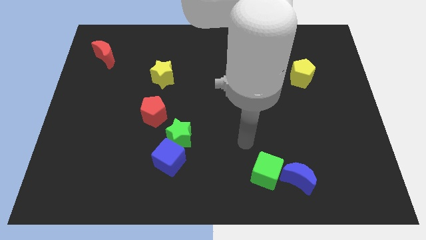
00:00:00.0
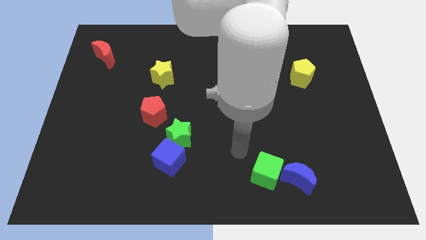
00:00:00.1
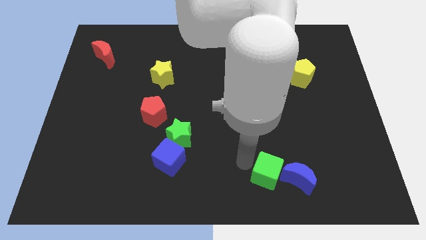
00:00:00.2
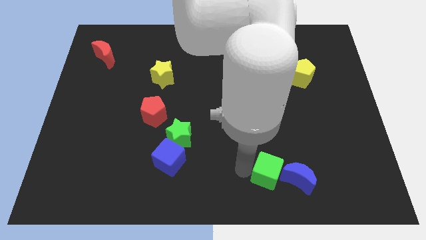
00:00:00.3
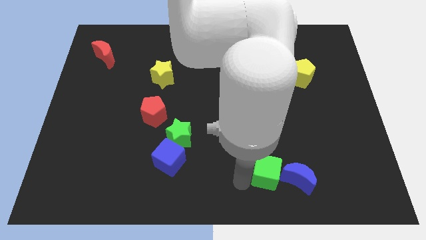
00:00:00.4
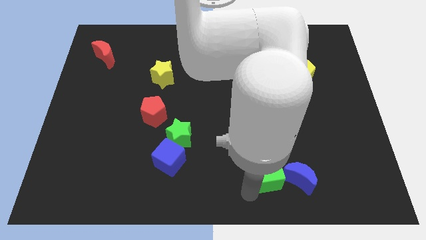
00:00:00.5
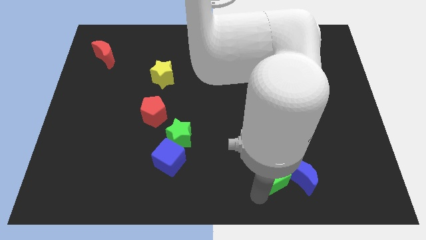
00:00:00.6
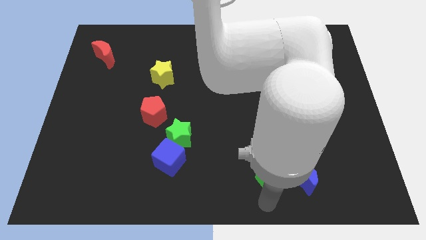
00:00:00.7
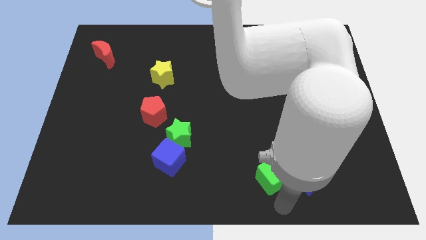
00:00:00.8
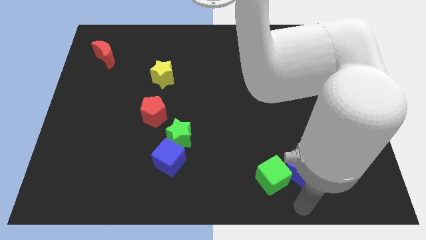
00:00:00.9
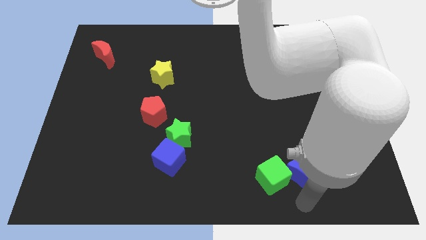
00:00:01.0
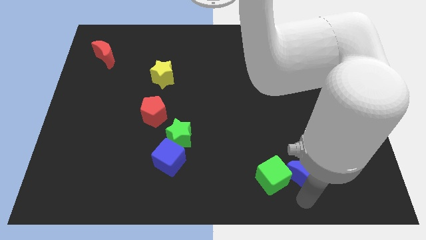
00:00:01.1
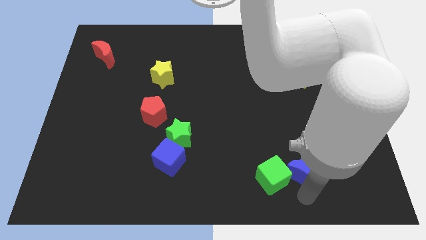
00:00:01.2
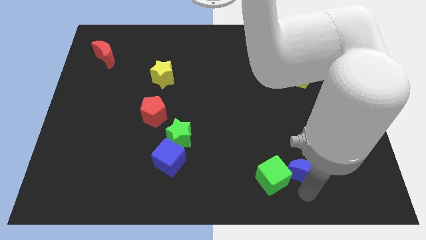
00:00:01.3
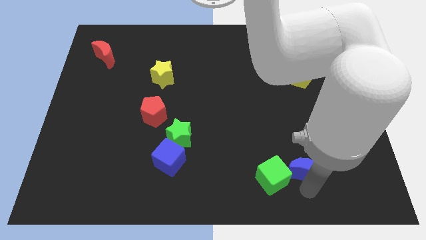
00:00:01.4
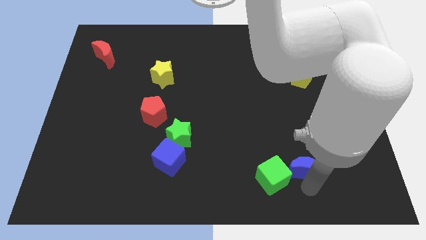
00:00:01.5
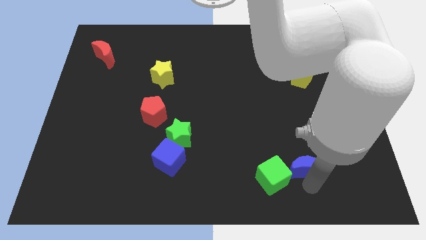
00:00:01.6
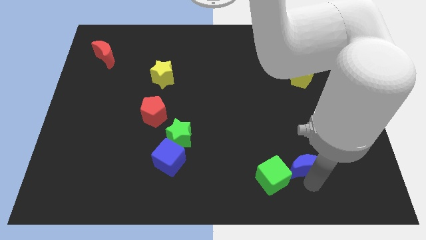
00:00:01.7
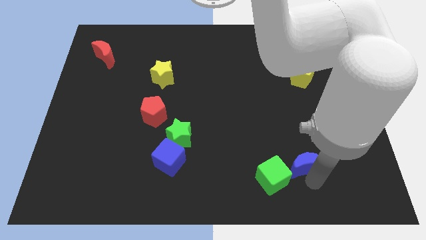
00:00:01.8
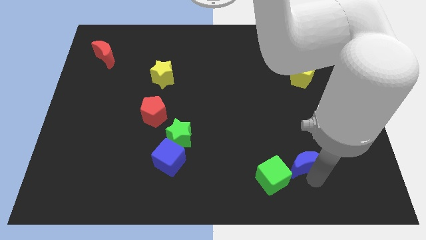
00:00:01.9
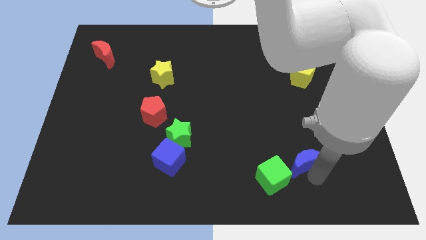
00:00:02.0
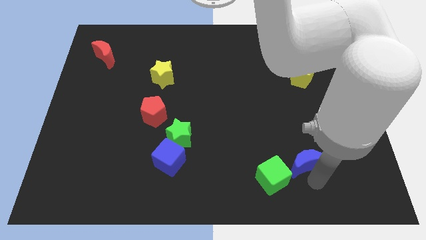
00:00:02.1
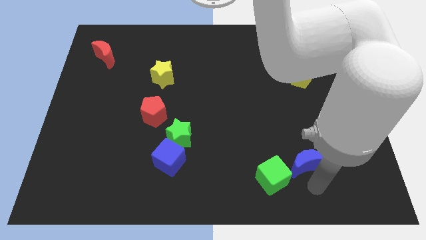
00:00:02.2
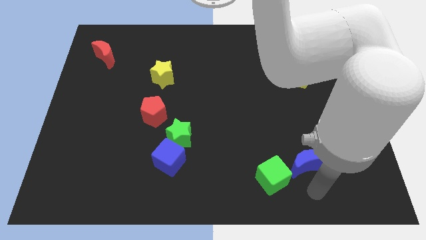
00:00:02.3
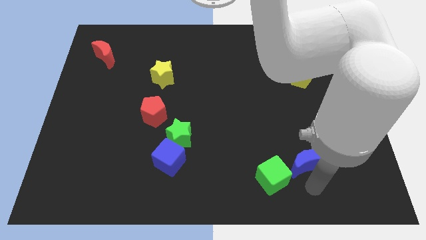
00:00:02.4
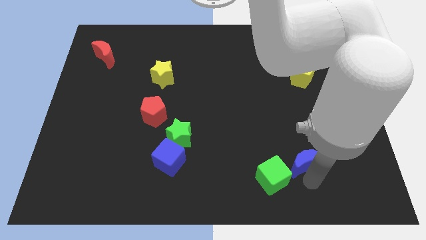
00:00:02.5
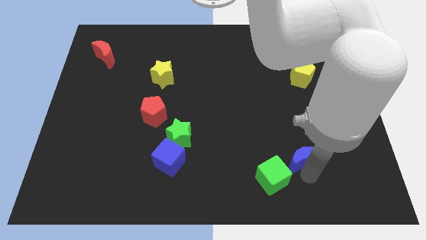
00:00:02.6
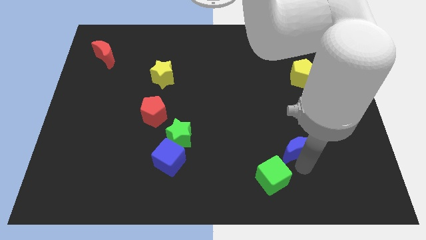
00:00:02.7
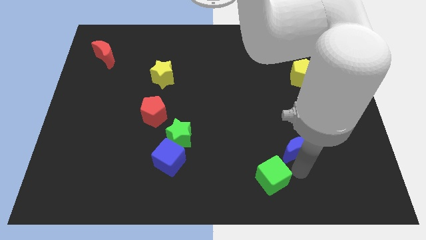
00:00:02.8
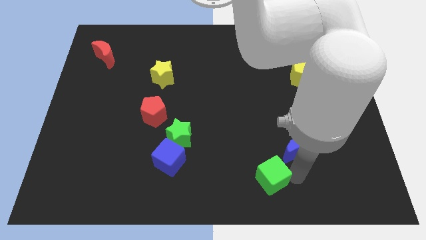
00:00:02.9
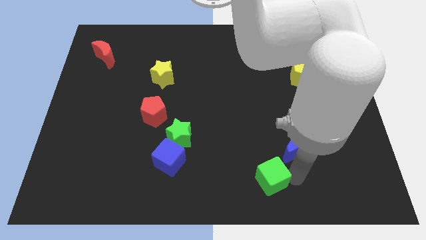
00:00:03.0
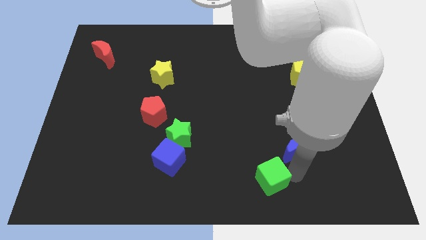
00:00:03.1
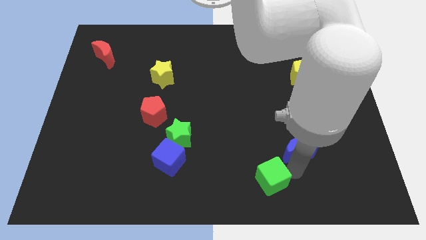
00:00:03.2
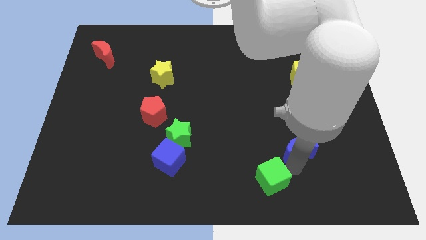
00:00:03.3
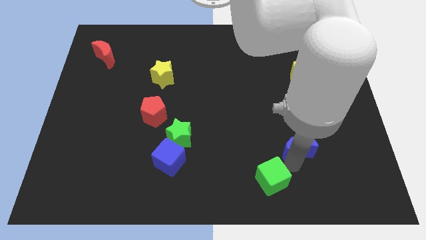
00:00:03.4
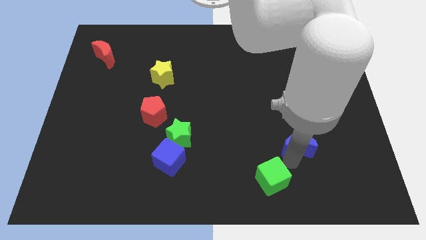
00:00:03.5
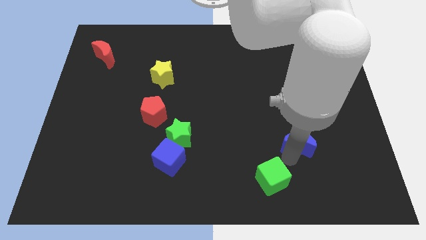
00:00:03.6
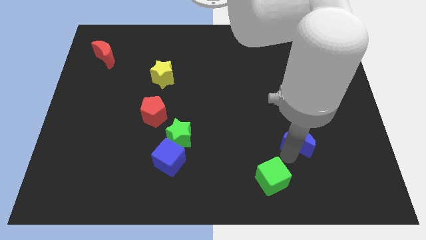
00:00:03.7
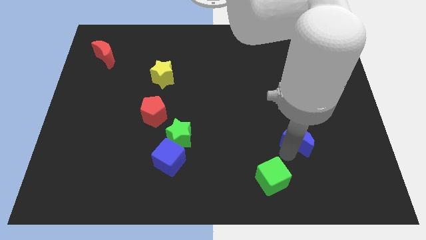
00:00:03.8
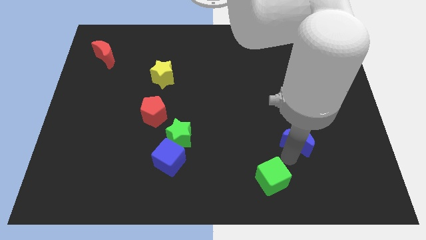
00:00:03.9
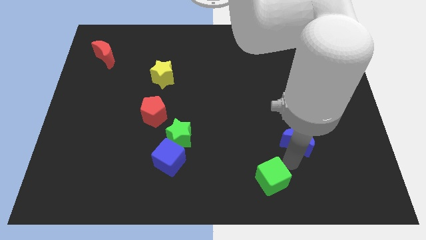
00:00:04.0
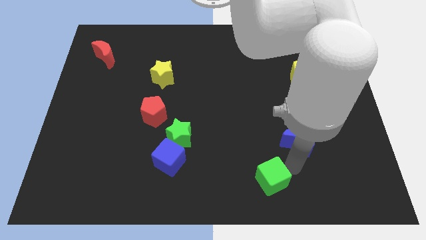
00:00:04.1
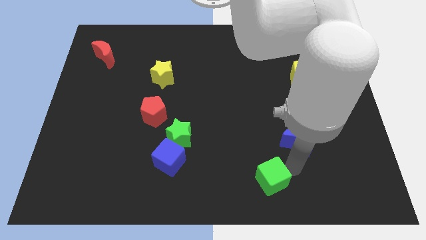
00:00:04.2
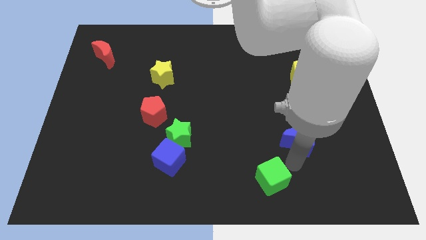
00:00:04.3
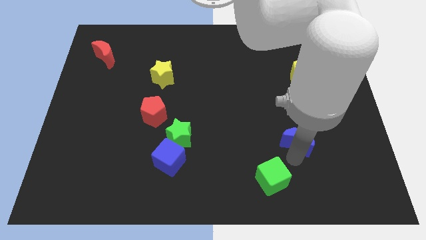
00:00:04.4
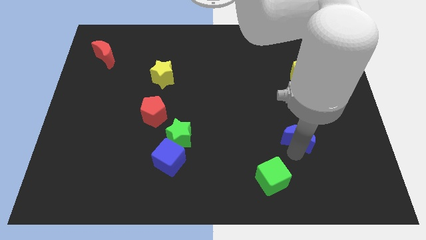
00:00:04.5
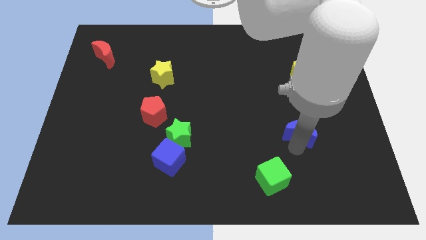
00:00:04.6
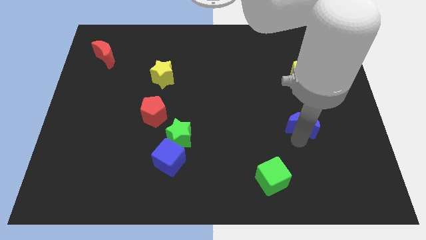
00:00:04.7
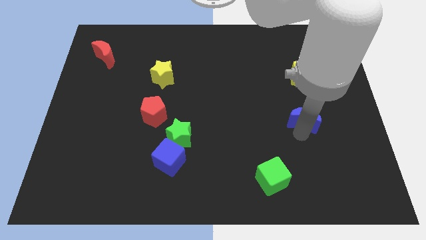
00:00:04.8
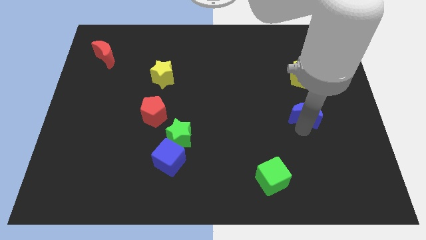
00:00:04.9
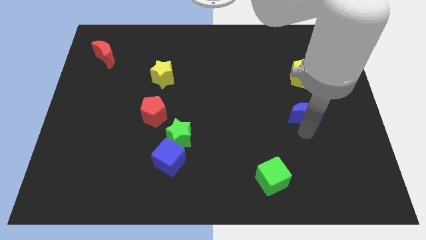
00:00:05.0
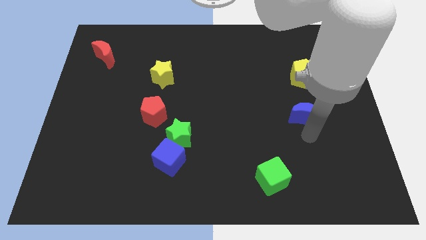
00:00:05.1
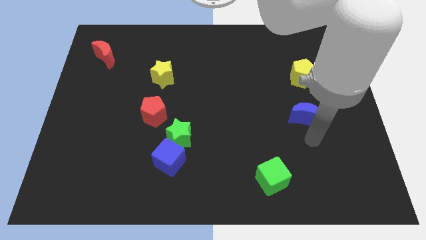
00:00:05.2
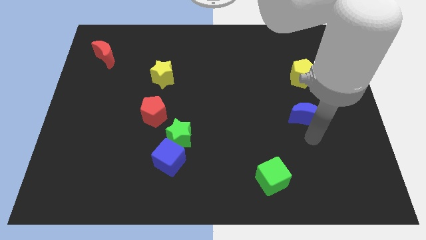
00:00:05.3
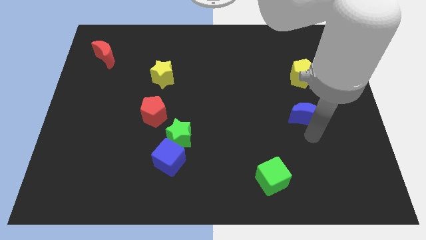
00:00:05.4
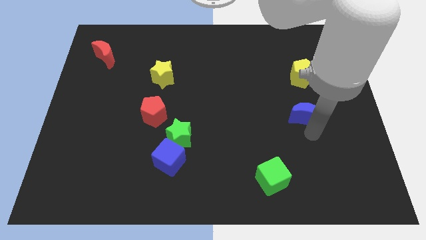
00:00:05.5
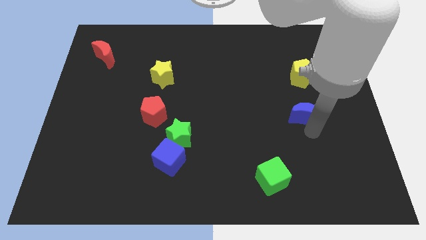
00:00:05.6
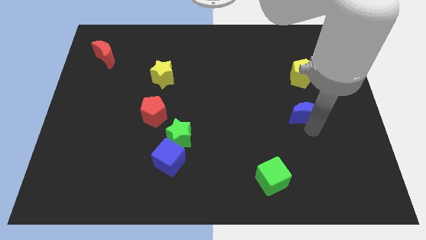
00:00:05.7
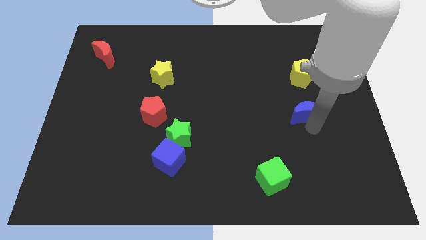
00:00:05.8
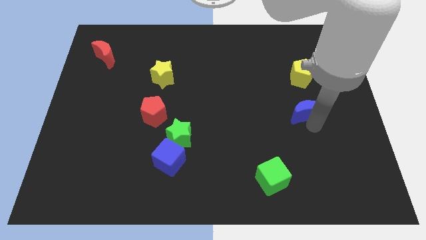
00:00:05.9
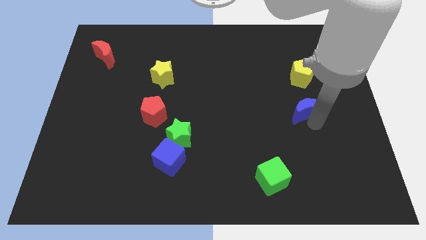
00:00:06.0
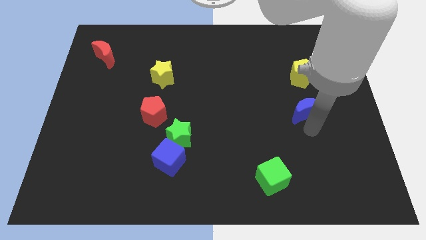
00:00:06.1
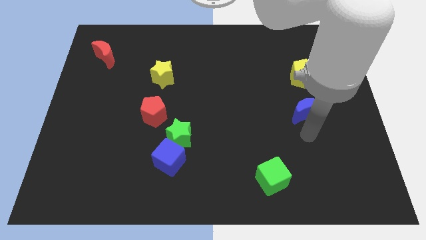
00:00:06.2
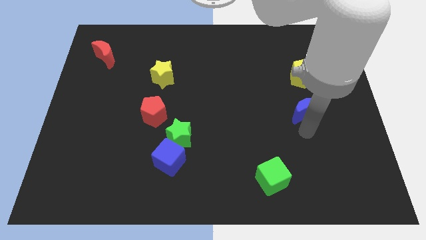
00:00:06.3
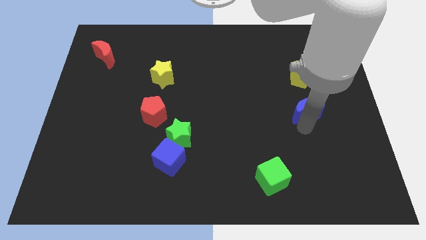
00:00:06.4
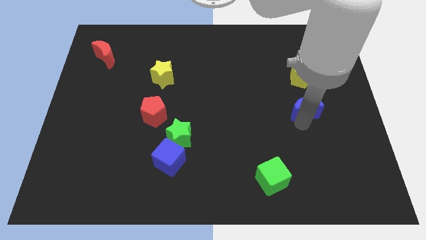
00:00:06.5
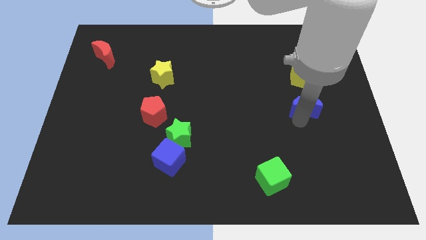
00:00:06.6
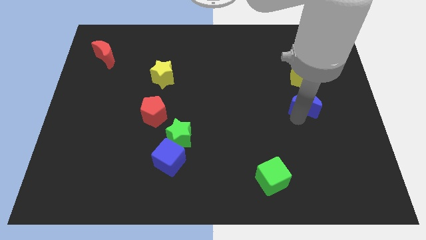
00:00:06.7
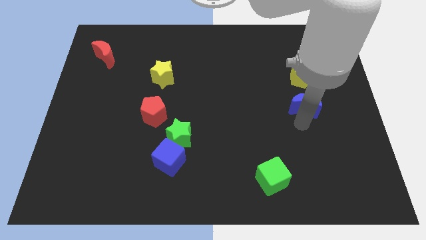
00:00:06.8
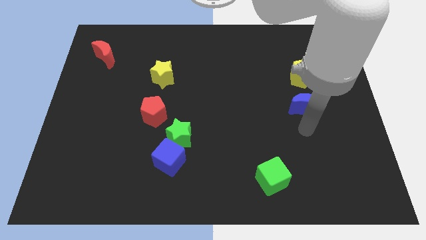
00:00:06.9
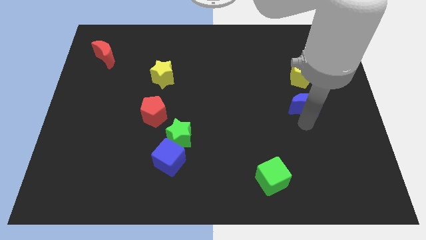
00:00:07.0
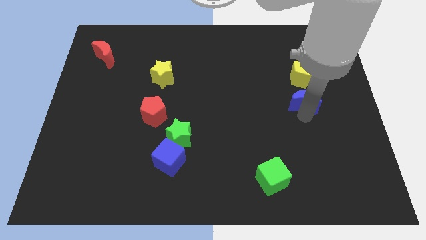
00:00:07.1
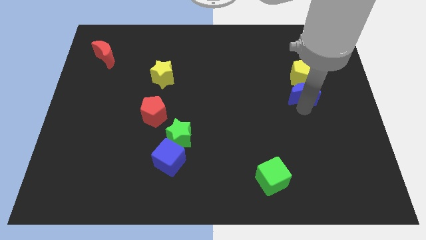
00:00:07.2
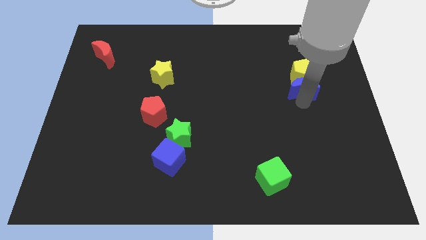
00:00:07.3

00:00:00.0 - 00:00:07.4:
push the blue moon to the yellow pentagon

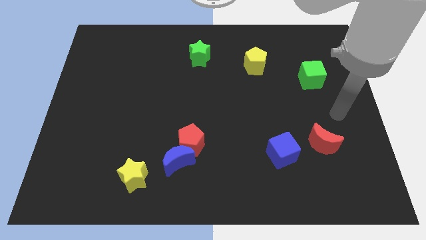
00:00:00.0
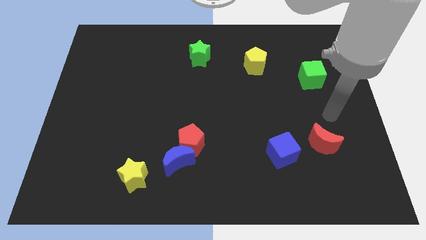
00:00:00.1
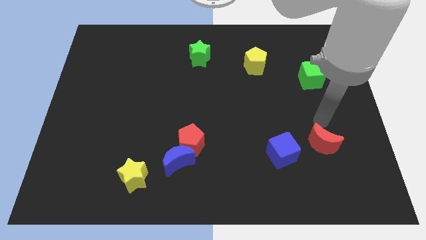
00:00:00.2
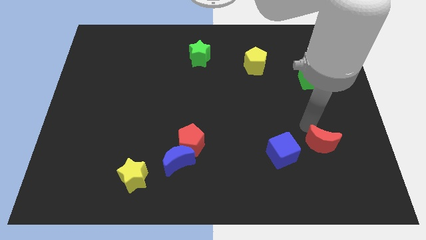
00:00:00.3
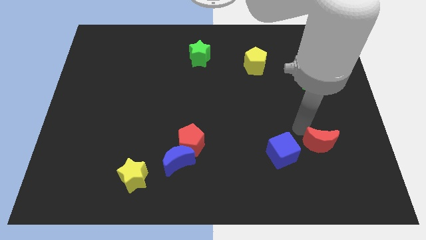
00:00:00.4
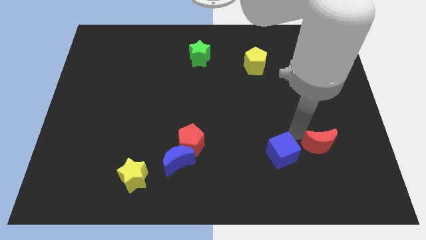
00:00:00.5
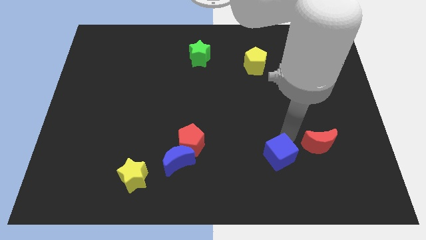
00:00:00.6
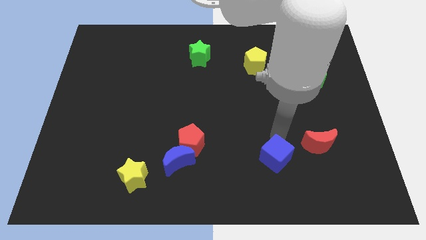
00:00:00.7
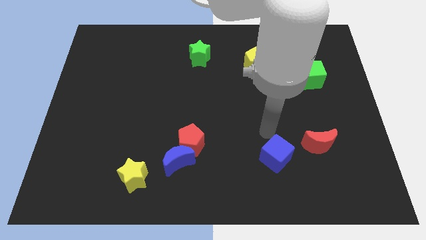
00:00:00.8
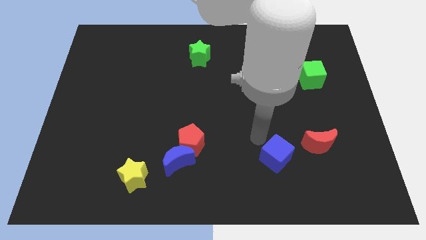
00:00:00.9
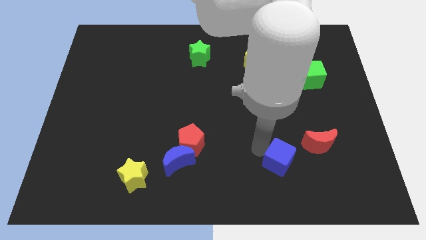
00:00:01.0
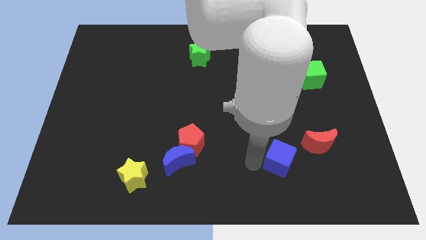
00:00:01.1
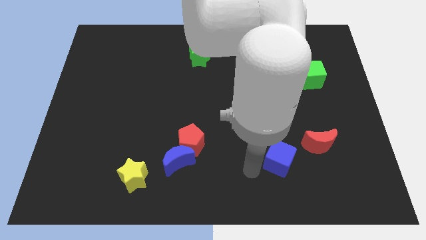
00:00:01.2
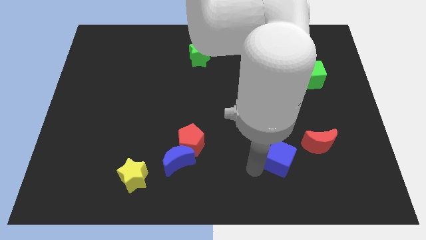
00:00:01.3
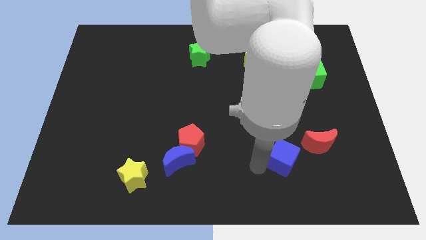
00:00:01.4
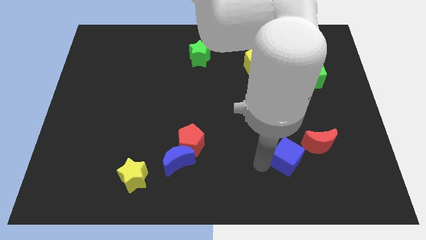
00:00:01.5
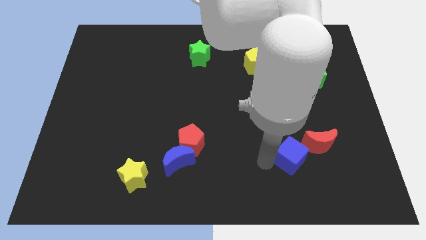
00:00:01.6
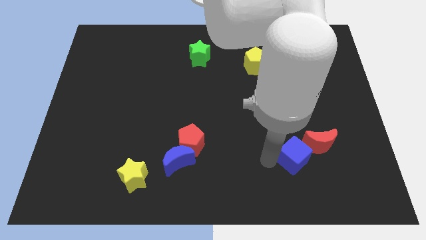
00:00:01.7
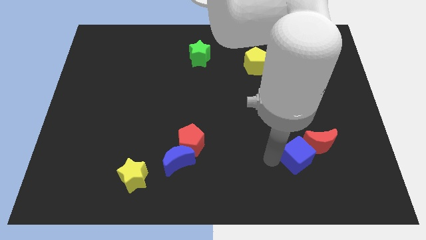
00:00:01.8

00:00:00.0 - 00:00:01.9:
put the blue cube towards the red moon
